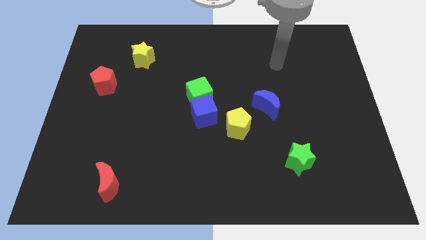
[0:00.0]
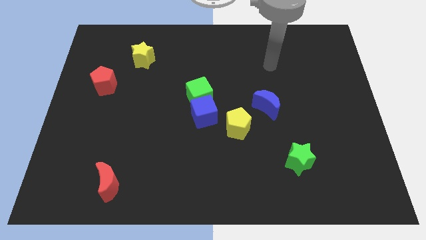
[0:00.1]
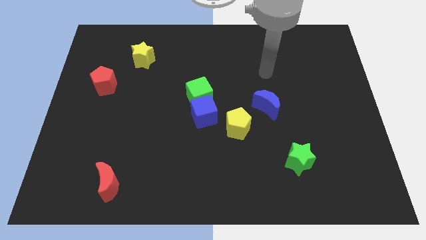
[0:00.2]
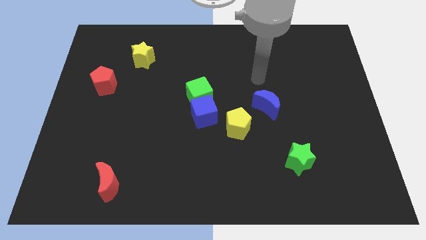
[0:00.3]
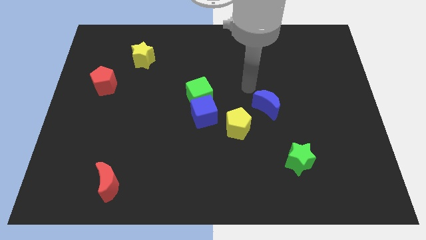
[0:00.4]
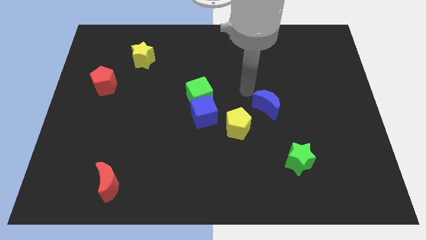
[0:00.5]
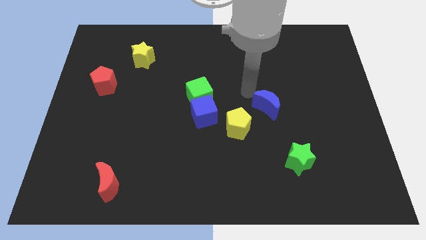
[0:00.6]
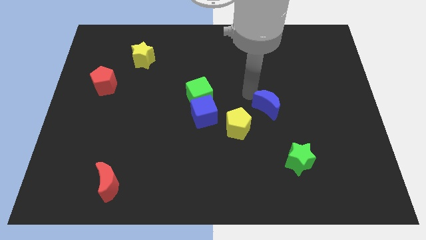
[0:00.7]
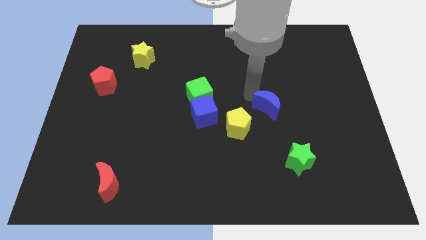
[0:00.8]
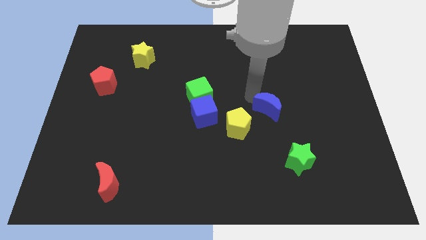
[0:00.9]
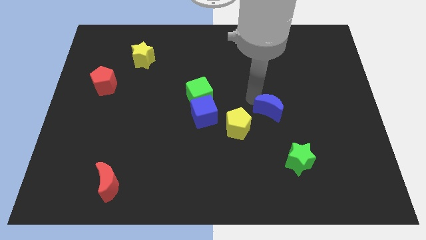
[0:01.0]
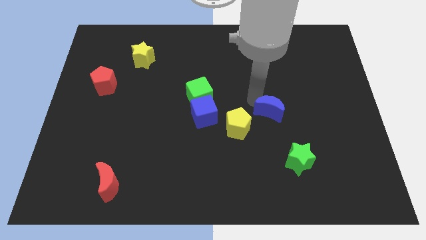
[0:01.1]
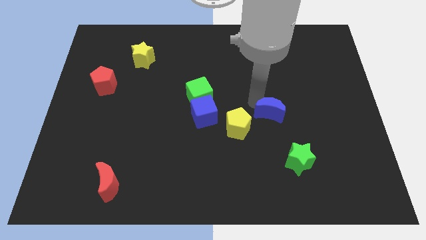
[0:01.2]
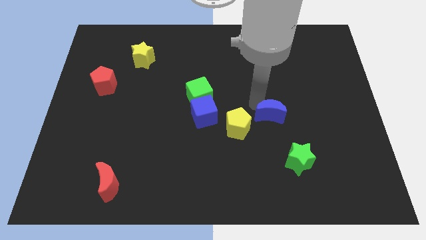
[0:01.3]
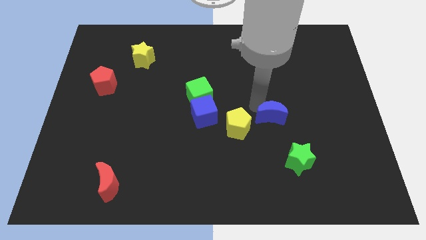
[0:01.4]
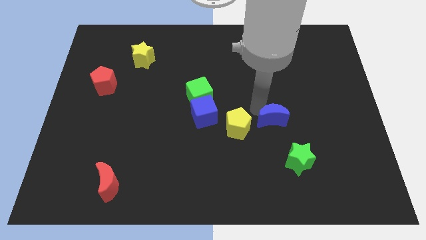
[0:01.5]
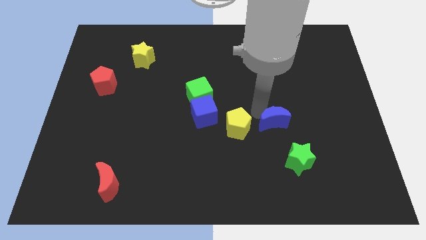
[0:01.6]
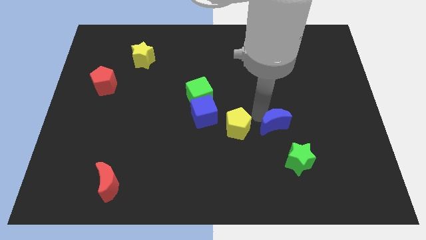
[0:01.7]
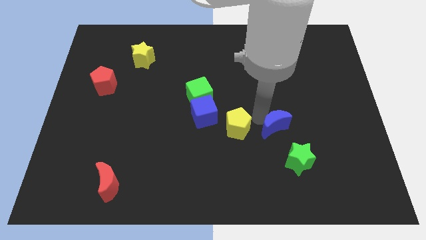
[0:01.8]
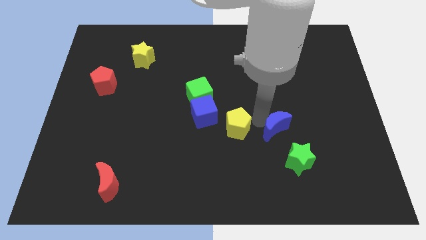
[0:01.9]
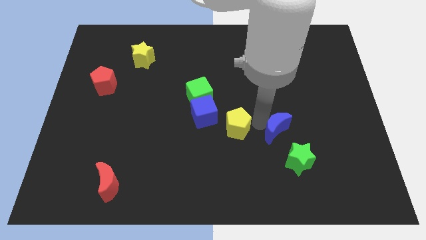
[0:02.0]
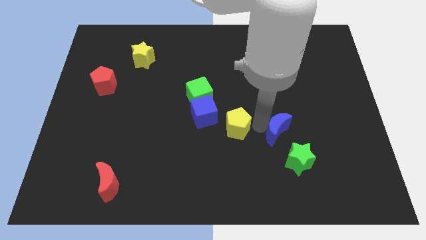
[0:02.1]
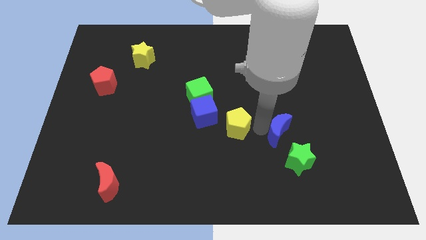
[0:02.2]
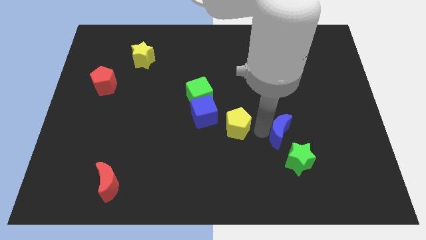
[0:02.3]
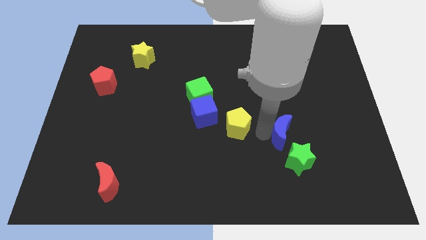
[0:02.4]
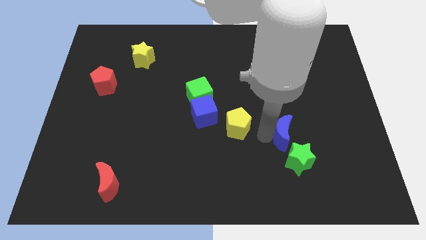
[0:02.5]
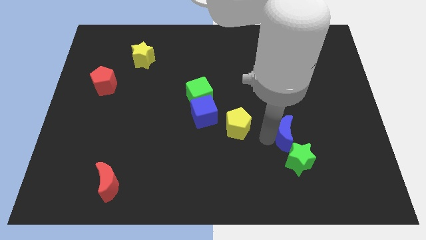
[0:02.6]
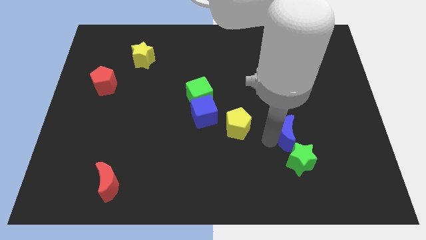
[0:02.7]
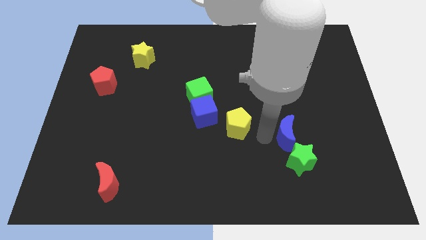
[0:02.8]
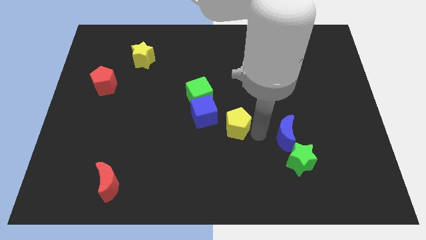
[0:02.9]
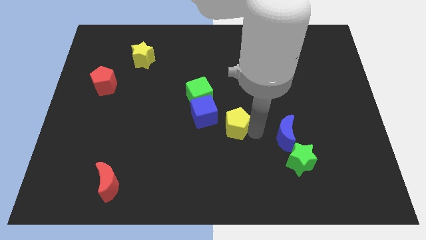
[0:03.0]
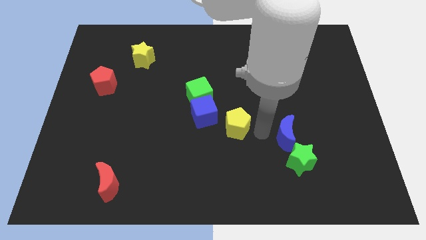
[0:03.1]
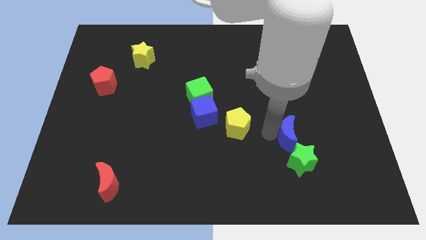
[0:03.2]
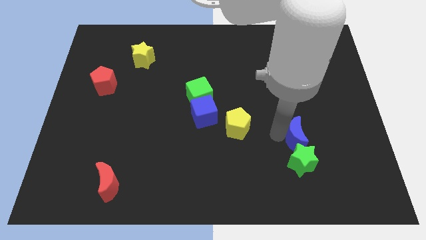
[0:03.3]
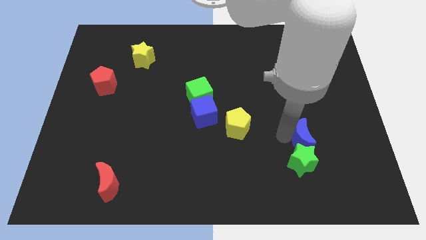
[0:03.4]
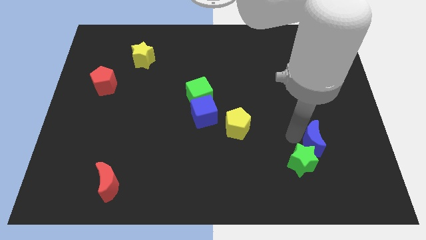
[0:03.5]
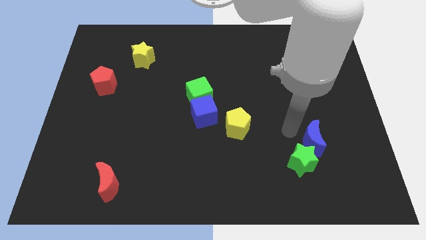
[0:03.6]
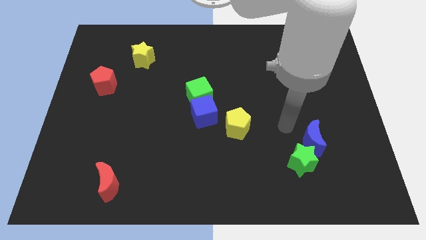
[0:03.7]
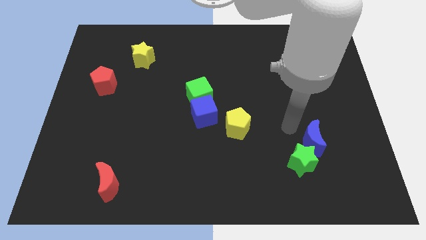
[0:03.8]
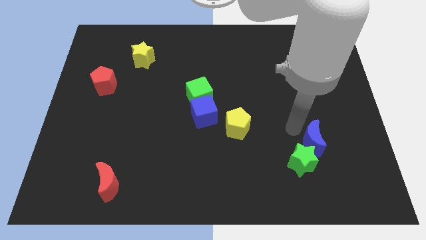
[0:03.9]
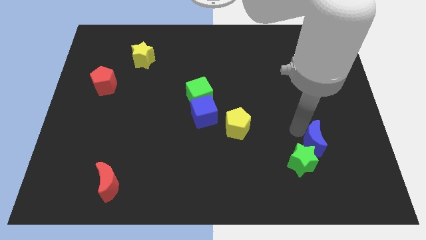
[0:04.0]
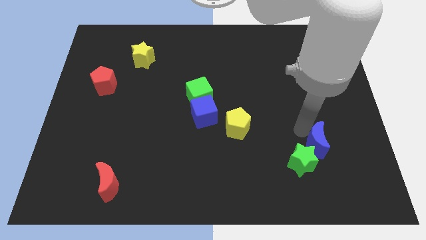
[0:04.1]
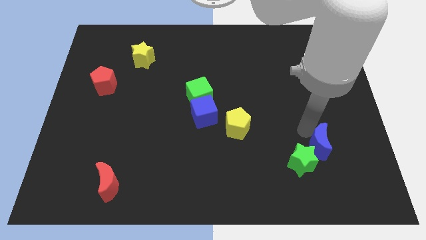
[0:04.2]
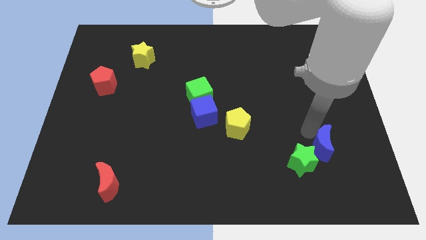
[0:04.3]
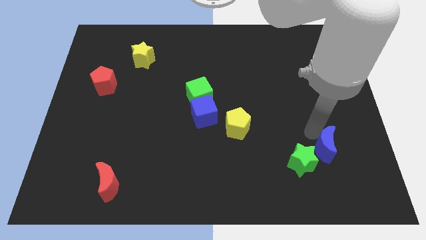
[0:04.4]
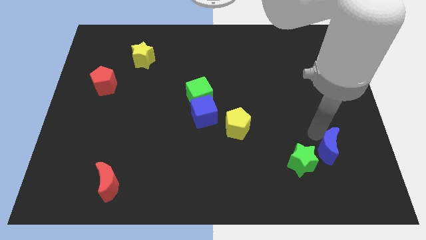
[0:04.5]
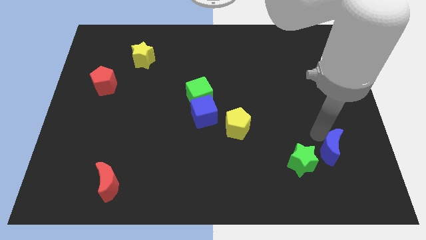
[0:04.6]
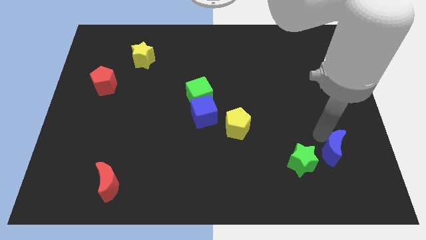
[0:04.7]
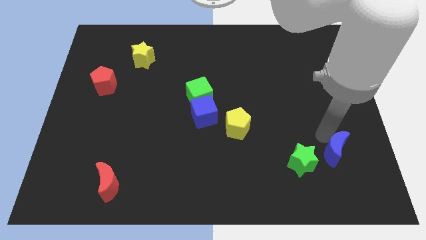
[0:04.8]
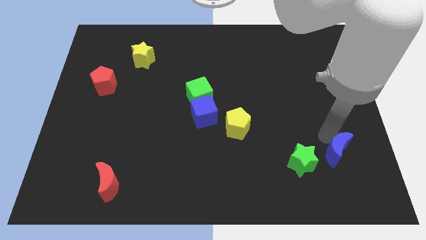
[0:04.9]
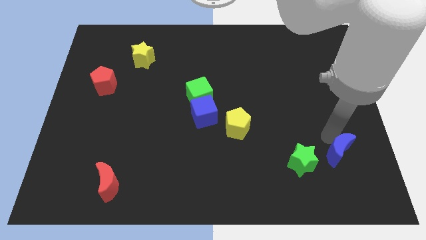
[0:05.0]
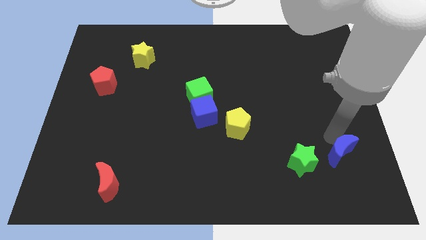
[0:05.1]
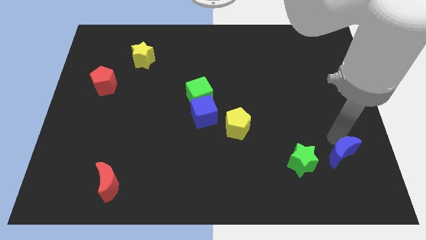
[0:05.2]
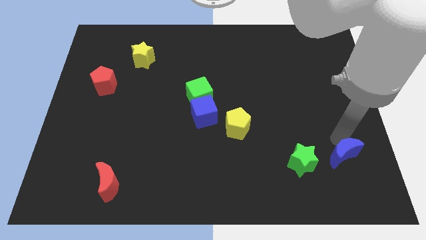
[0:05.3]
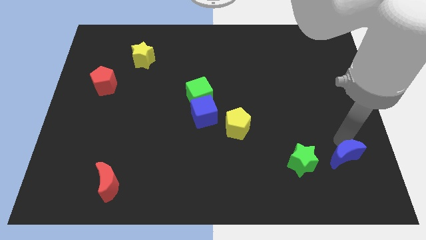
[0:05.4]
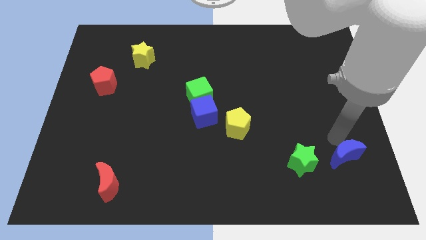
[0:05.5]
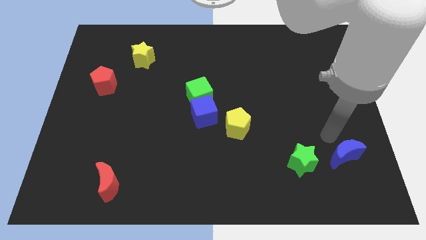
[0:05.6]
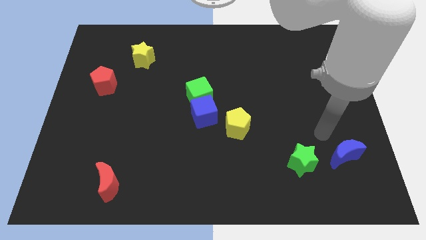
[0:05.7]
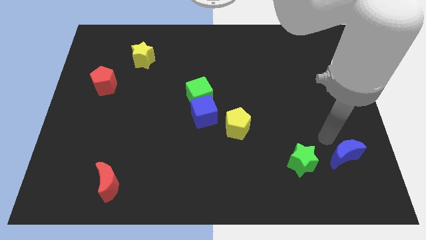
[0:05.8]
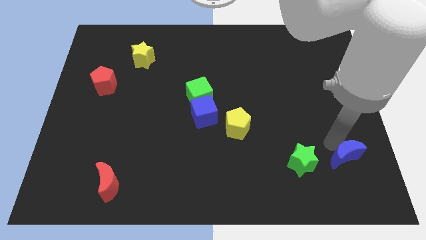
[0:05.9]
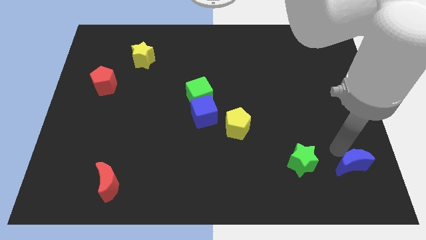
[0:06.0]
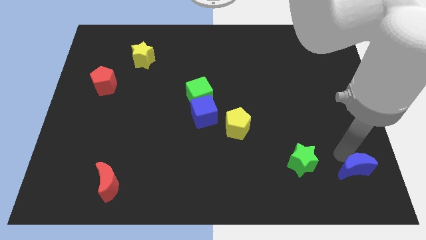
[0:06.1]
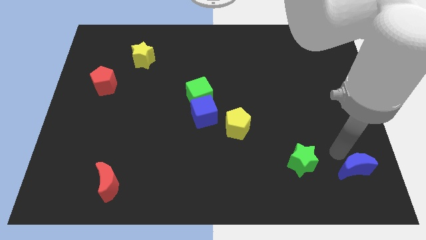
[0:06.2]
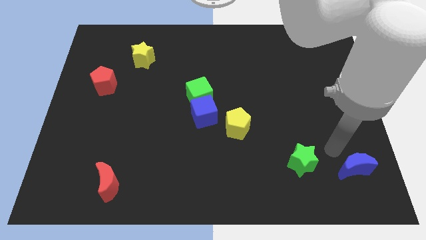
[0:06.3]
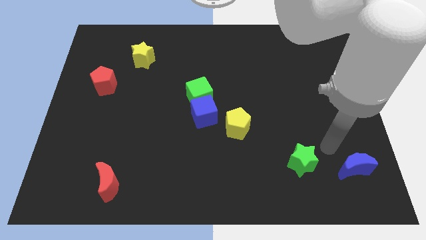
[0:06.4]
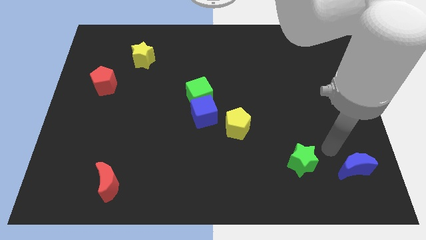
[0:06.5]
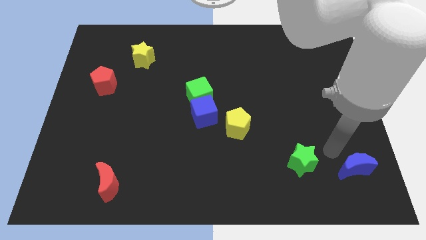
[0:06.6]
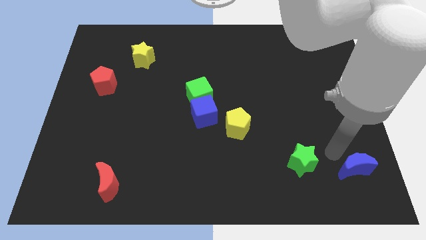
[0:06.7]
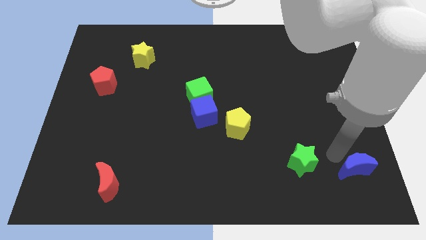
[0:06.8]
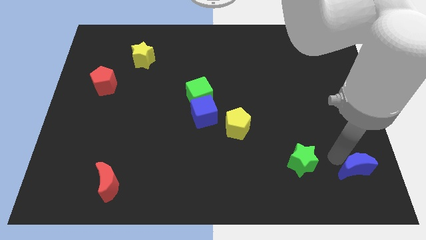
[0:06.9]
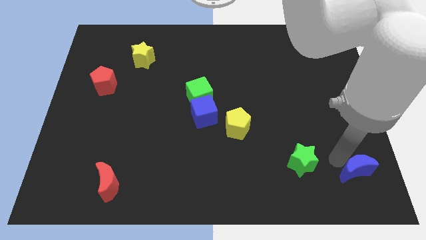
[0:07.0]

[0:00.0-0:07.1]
push the blue moon to the bottom right
